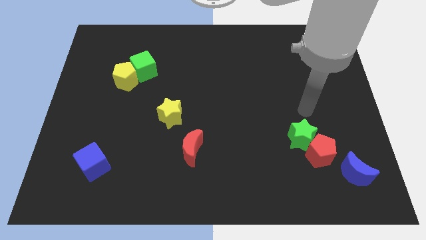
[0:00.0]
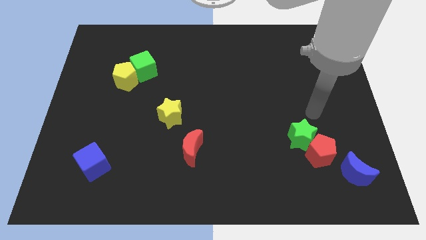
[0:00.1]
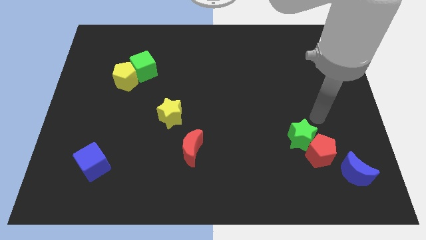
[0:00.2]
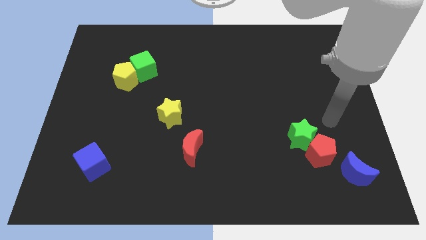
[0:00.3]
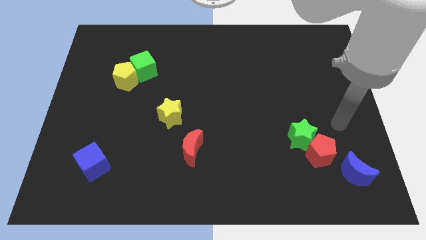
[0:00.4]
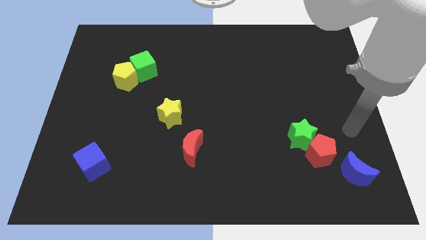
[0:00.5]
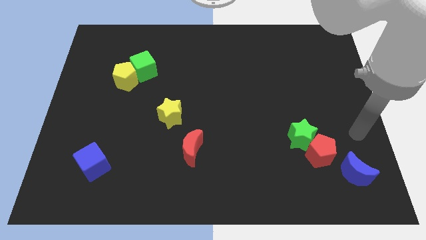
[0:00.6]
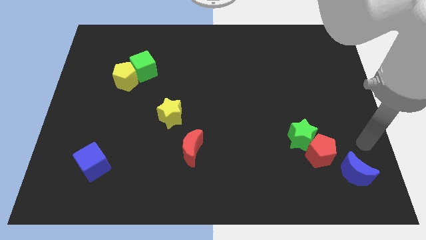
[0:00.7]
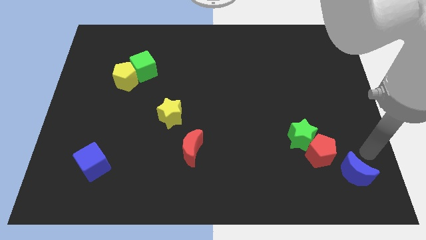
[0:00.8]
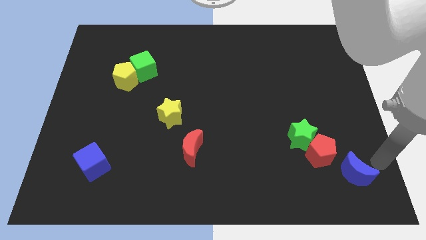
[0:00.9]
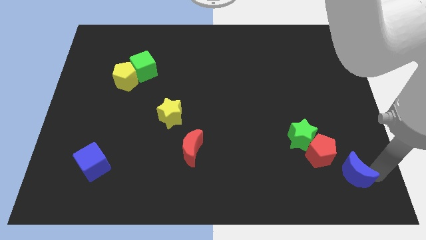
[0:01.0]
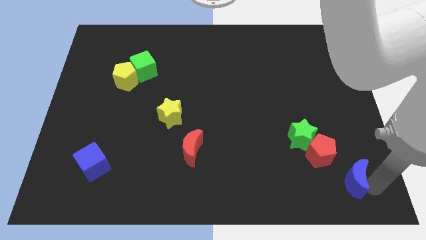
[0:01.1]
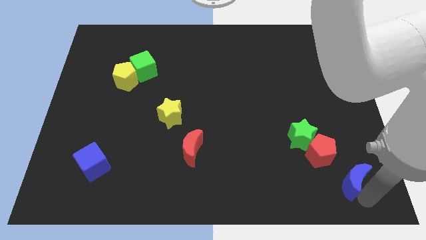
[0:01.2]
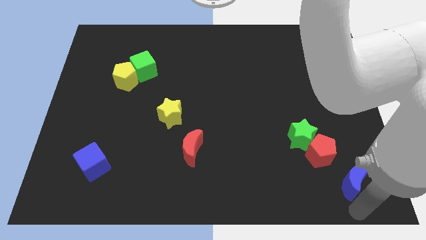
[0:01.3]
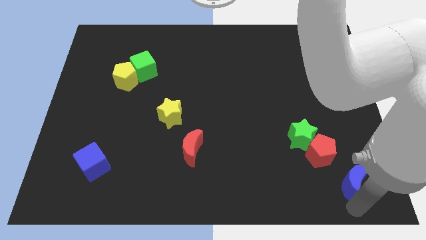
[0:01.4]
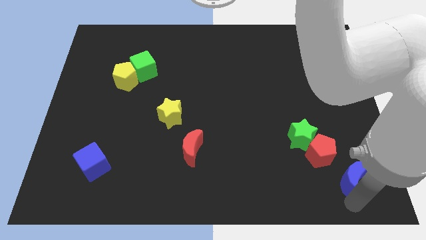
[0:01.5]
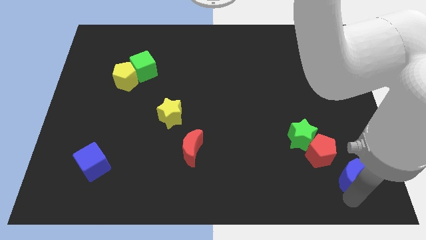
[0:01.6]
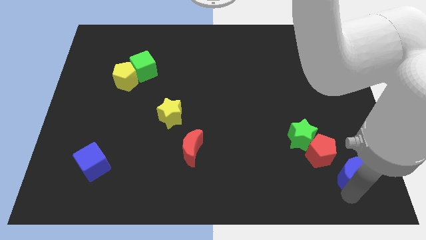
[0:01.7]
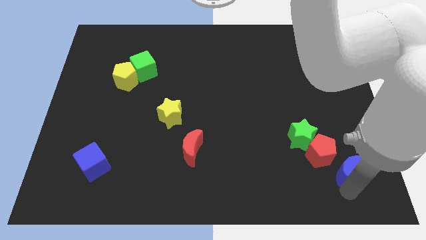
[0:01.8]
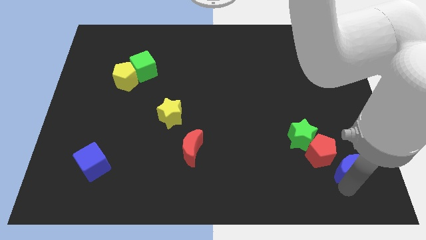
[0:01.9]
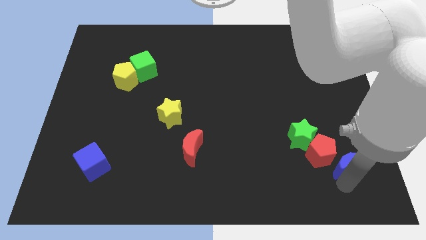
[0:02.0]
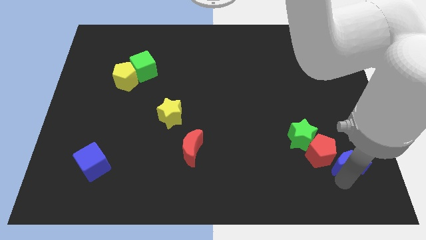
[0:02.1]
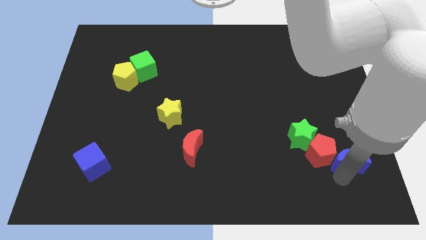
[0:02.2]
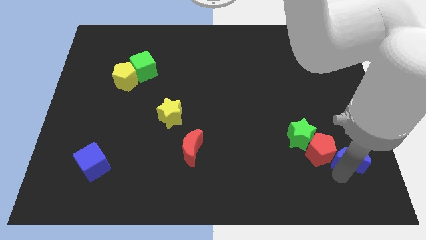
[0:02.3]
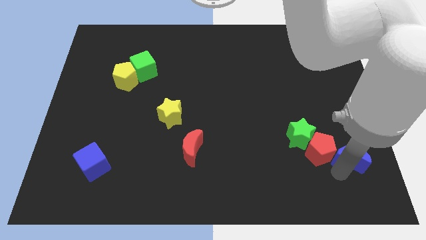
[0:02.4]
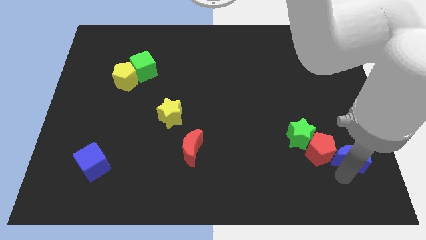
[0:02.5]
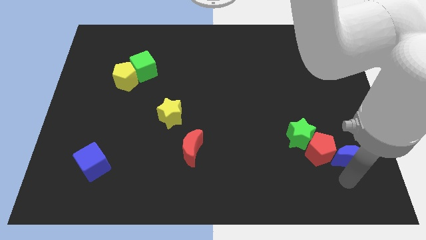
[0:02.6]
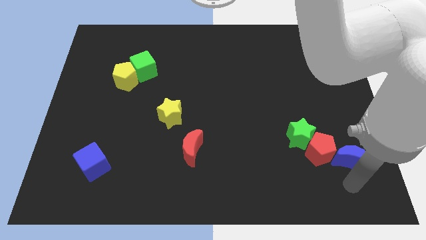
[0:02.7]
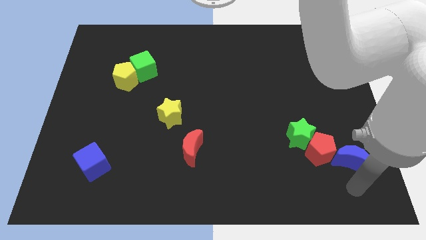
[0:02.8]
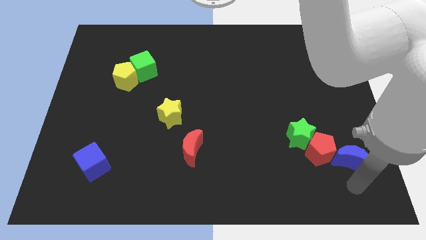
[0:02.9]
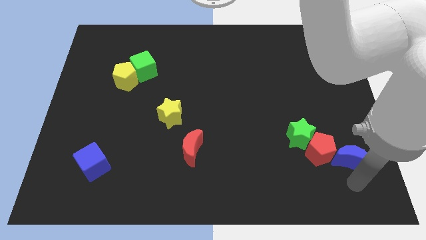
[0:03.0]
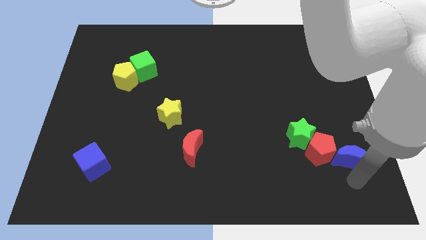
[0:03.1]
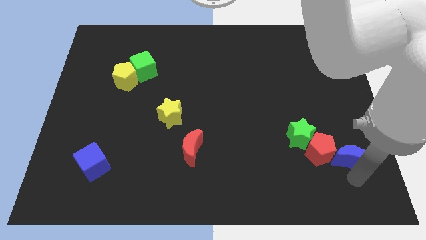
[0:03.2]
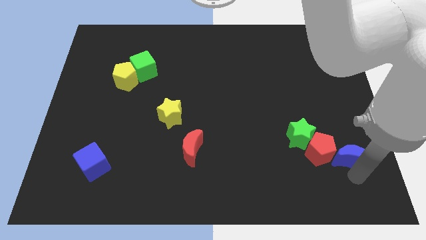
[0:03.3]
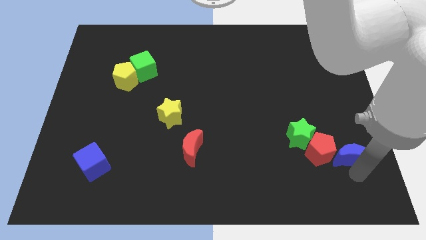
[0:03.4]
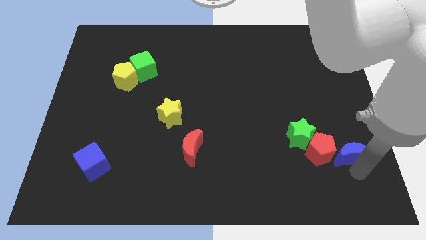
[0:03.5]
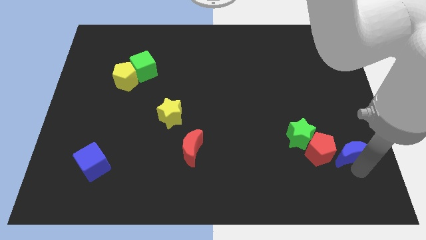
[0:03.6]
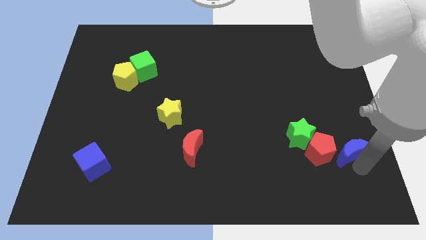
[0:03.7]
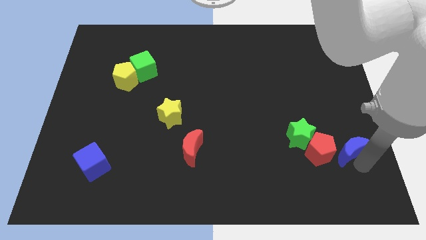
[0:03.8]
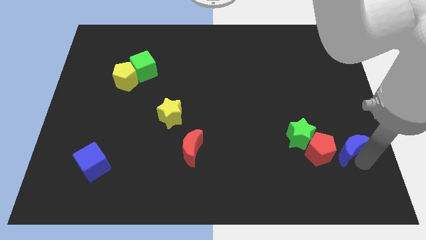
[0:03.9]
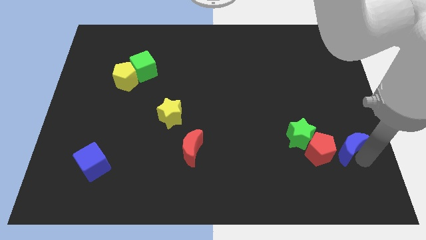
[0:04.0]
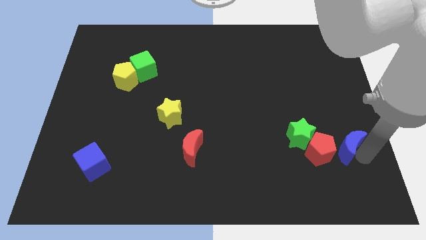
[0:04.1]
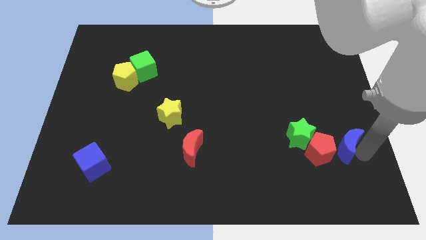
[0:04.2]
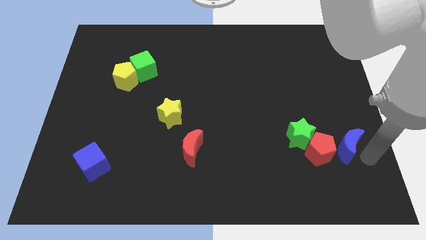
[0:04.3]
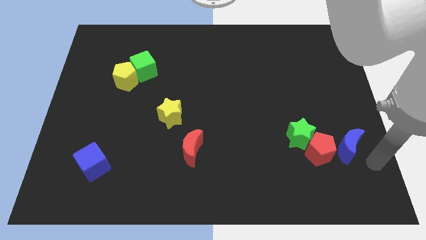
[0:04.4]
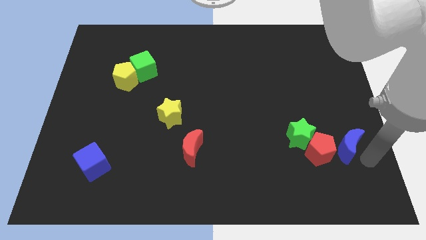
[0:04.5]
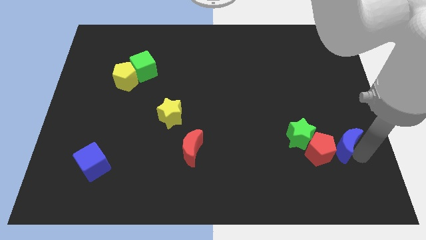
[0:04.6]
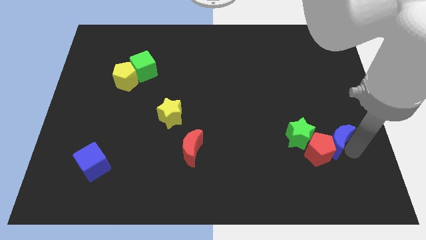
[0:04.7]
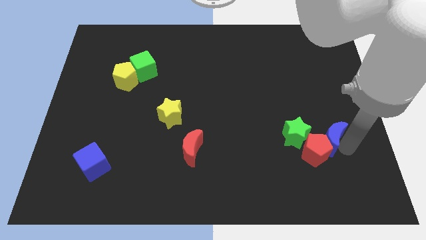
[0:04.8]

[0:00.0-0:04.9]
move the blue moon diagonally upwards and to the left a little

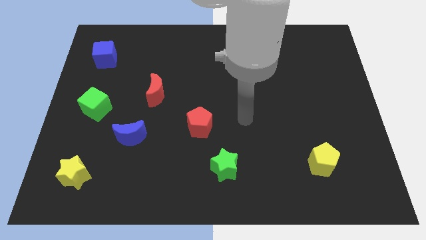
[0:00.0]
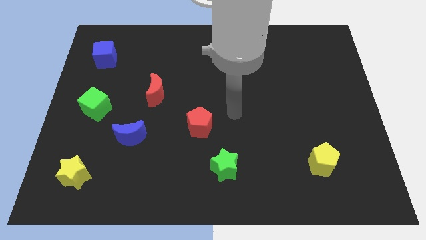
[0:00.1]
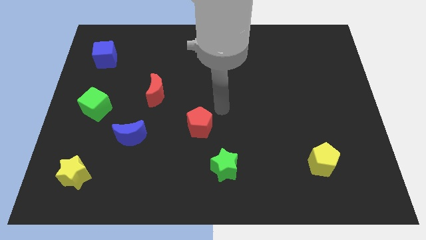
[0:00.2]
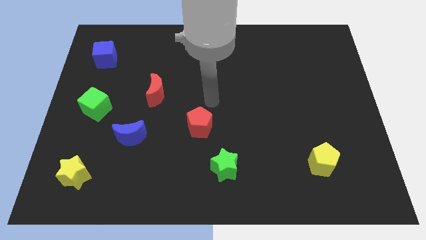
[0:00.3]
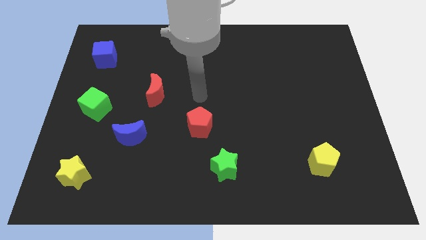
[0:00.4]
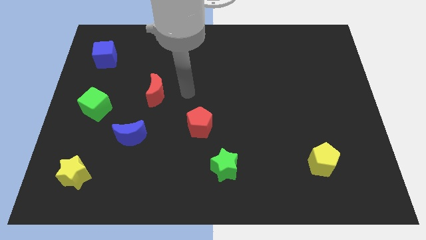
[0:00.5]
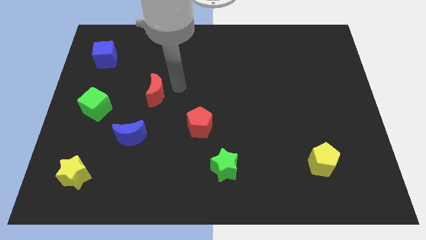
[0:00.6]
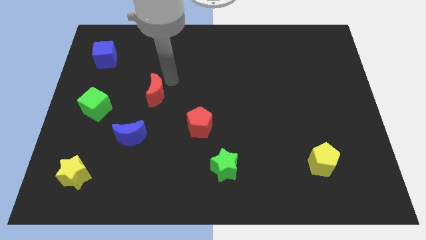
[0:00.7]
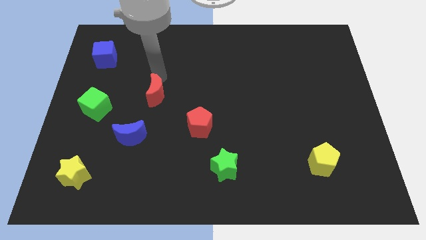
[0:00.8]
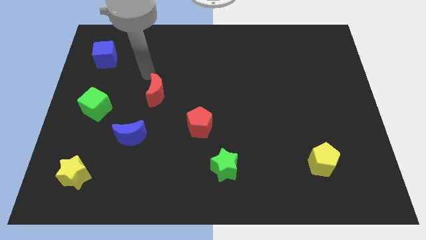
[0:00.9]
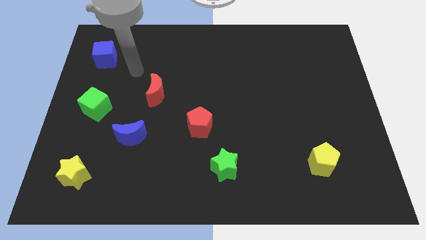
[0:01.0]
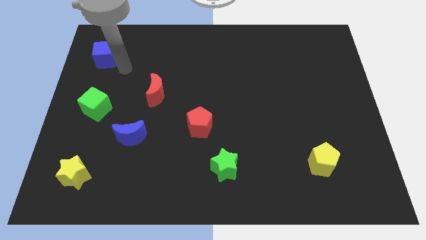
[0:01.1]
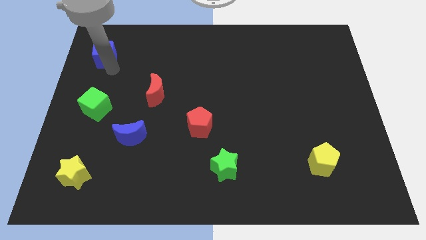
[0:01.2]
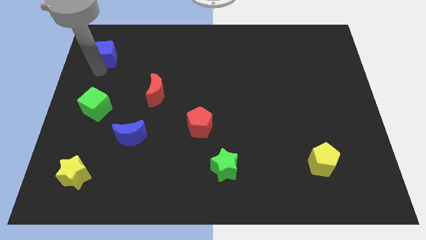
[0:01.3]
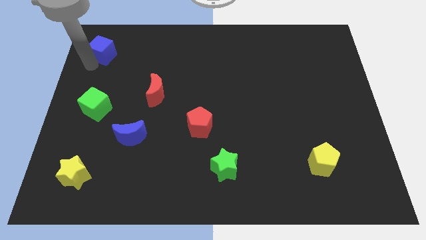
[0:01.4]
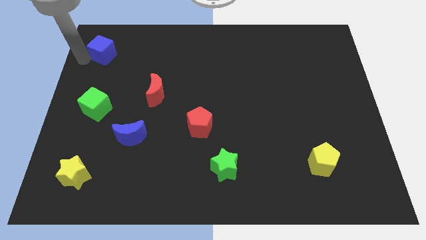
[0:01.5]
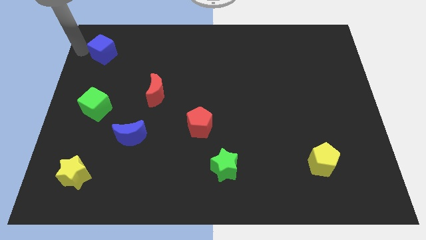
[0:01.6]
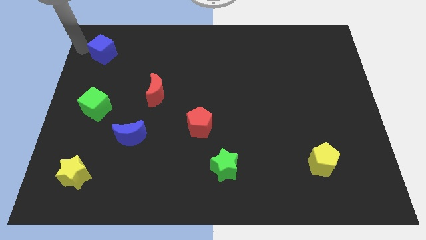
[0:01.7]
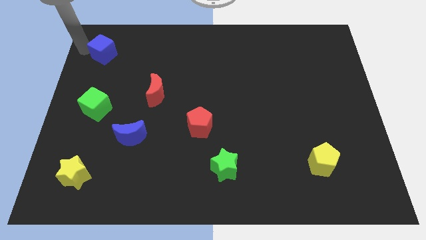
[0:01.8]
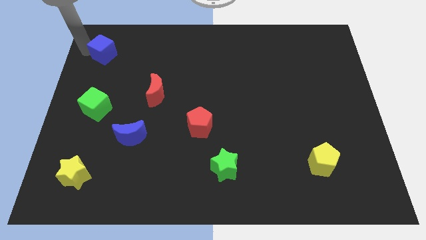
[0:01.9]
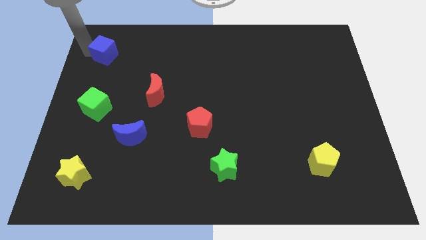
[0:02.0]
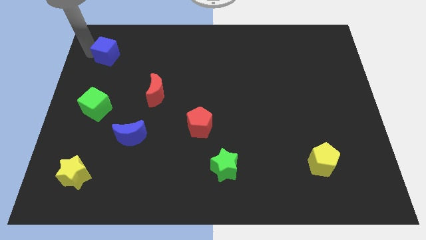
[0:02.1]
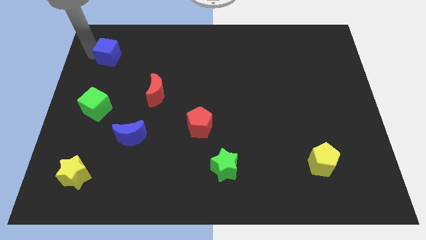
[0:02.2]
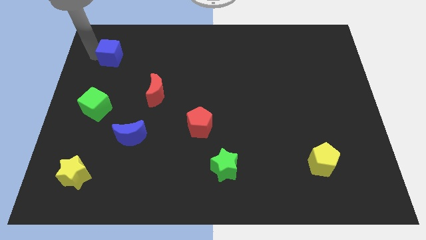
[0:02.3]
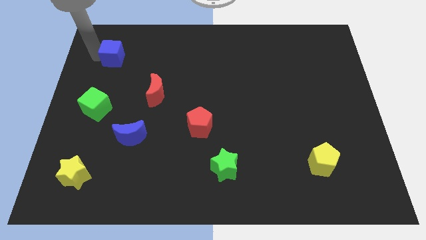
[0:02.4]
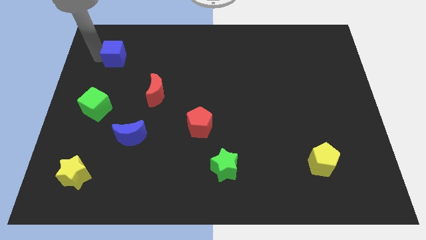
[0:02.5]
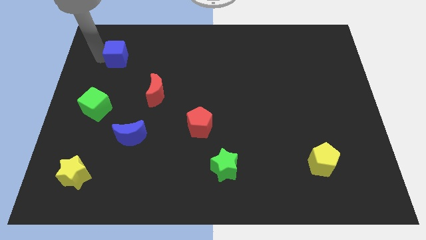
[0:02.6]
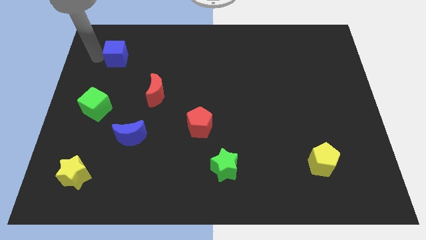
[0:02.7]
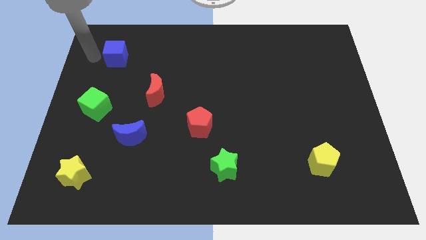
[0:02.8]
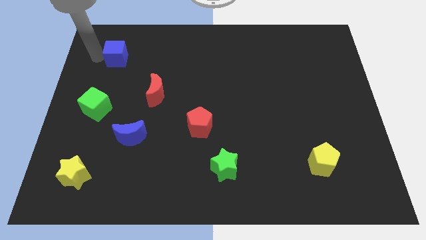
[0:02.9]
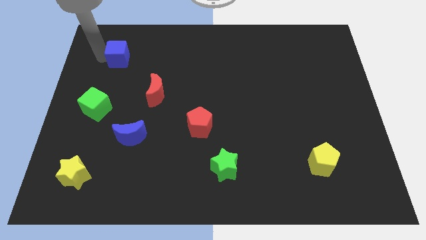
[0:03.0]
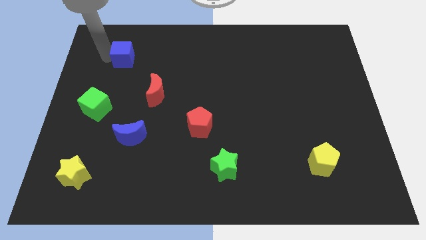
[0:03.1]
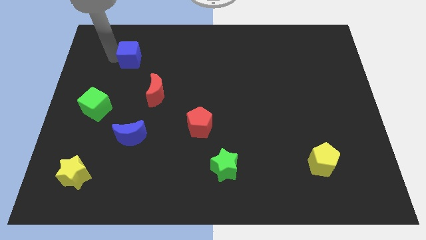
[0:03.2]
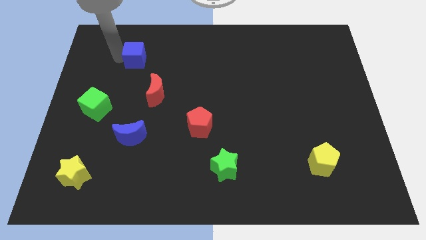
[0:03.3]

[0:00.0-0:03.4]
slightly push the blue cube right
